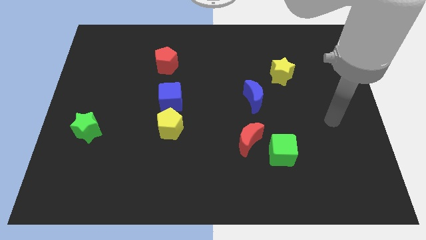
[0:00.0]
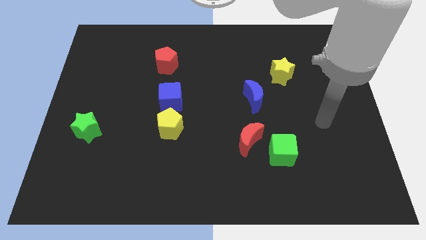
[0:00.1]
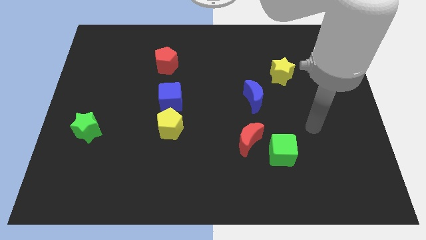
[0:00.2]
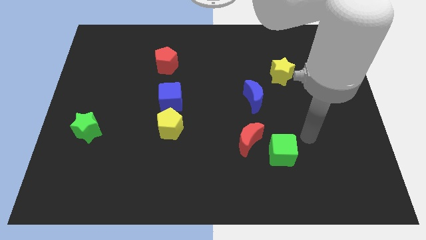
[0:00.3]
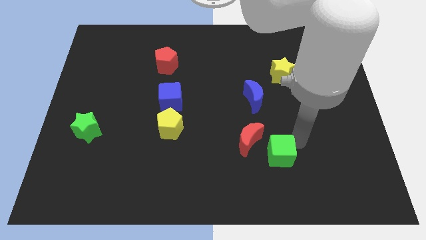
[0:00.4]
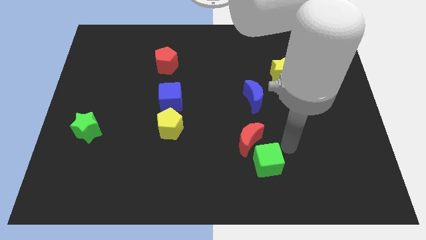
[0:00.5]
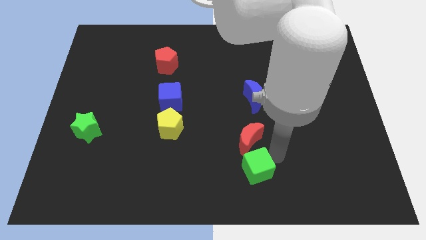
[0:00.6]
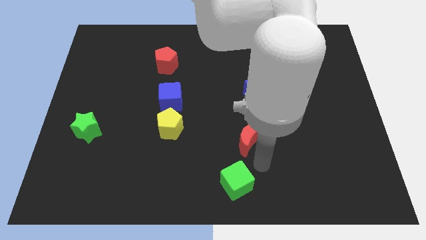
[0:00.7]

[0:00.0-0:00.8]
pull the red moon apart from the green cube

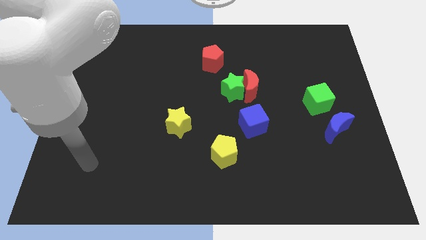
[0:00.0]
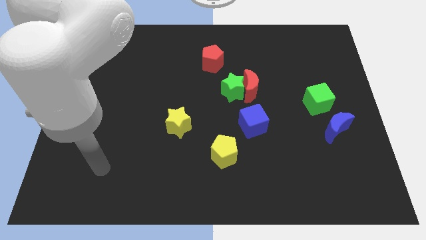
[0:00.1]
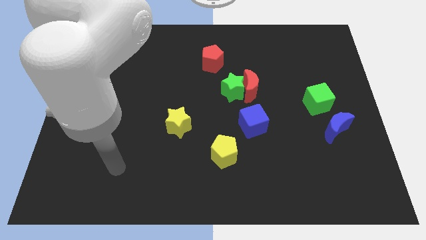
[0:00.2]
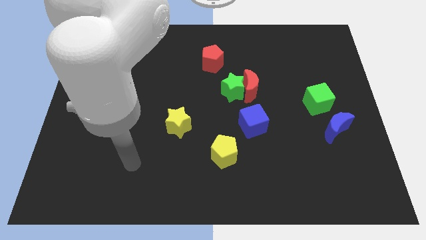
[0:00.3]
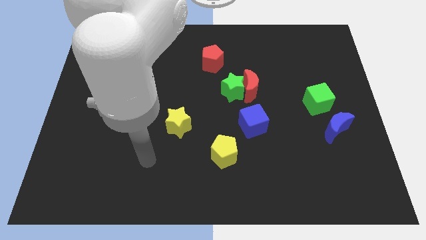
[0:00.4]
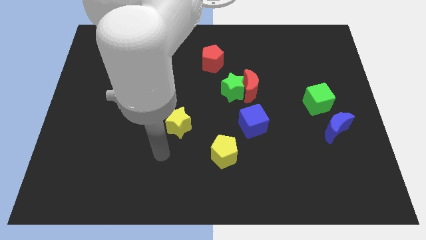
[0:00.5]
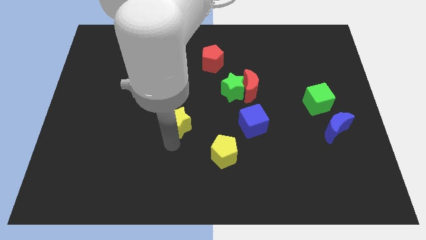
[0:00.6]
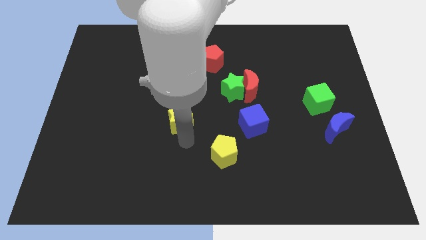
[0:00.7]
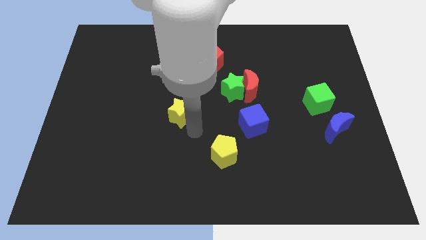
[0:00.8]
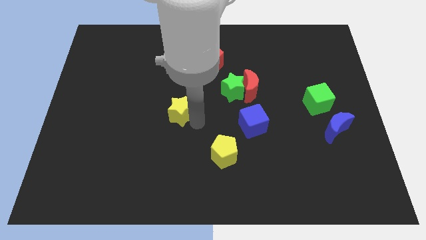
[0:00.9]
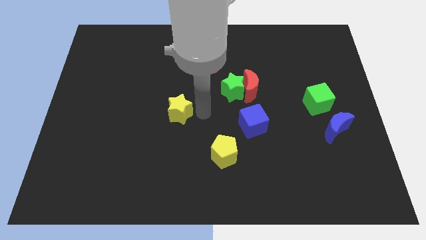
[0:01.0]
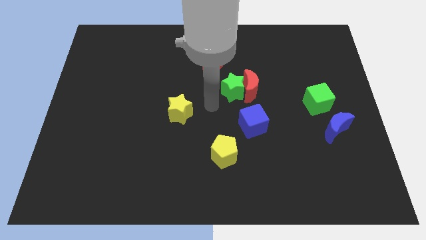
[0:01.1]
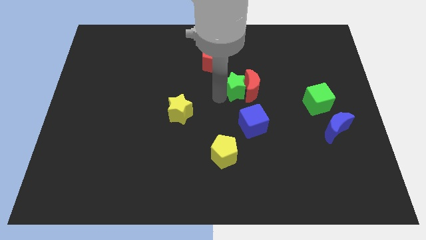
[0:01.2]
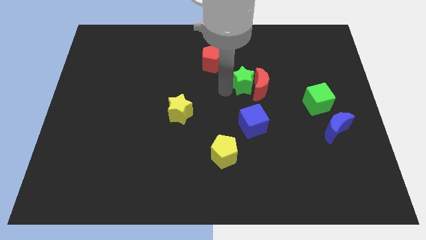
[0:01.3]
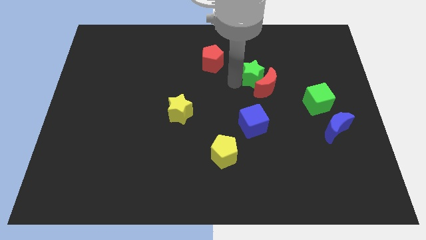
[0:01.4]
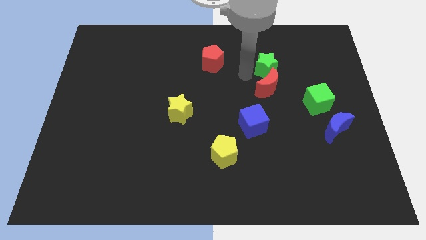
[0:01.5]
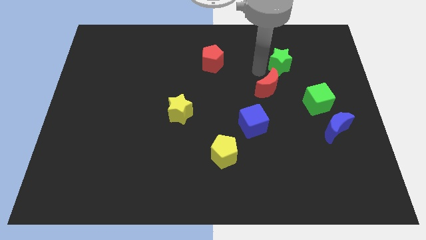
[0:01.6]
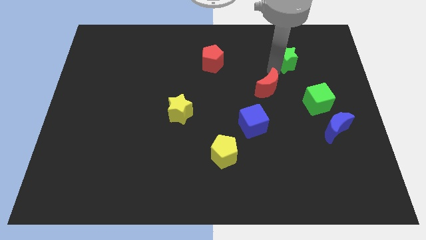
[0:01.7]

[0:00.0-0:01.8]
pull the red moon apart from the green star

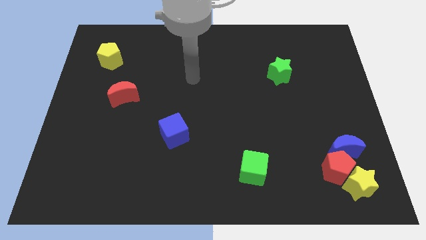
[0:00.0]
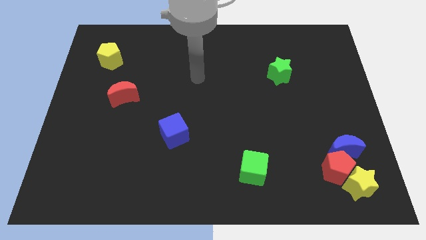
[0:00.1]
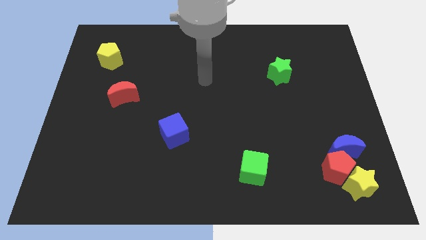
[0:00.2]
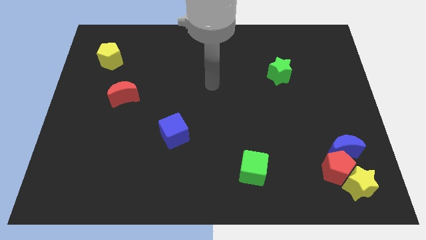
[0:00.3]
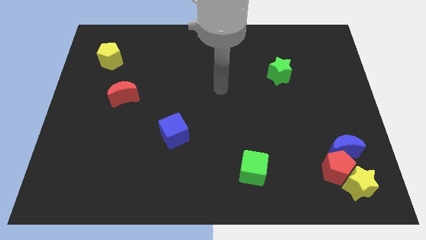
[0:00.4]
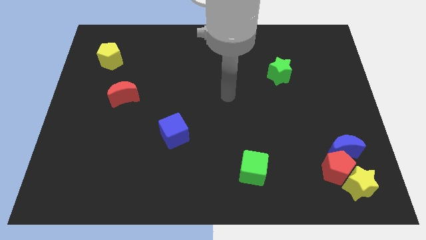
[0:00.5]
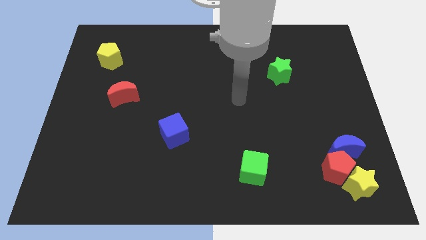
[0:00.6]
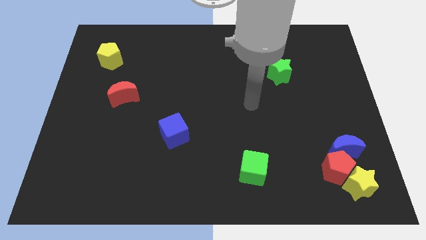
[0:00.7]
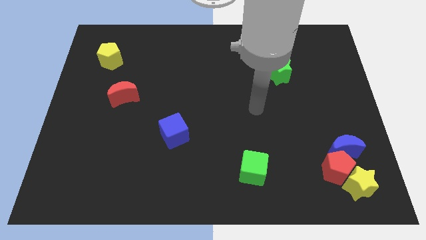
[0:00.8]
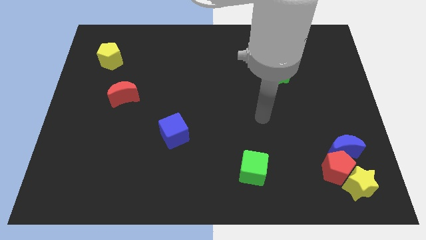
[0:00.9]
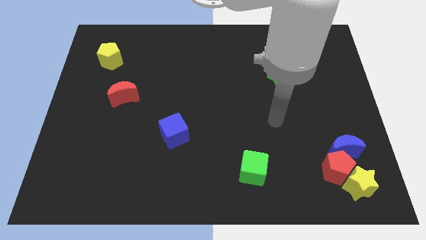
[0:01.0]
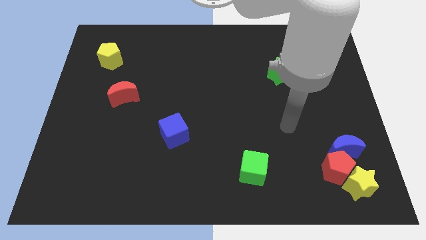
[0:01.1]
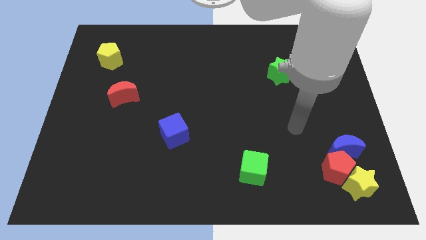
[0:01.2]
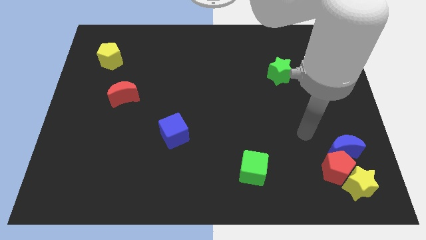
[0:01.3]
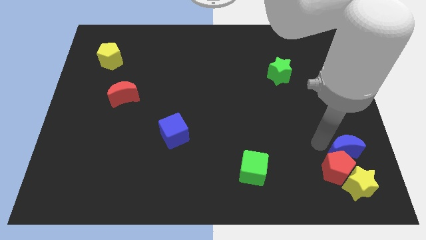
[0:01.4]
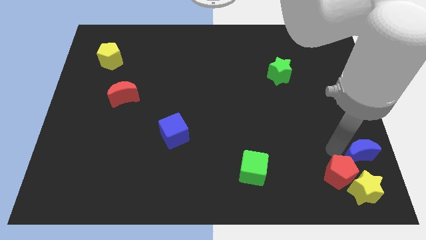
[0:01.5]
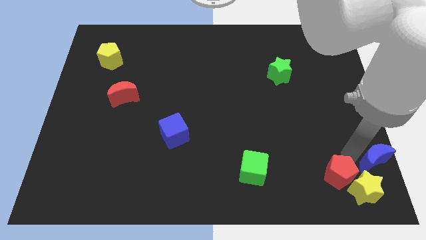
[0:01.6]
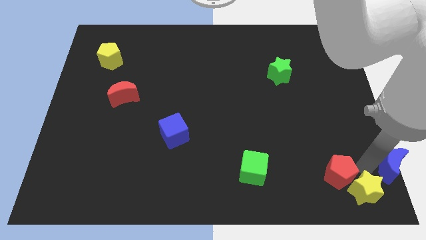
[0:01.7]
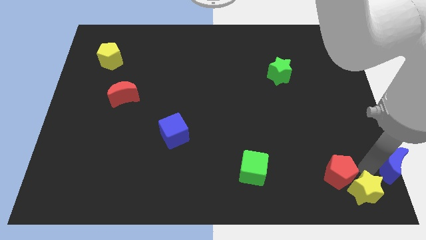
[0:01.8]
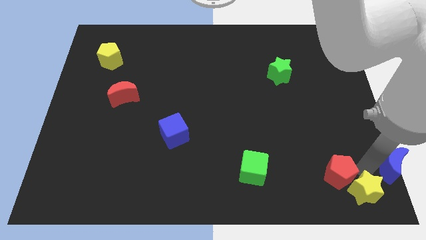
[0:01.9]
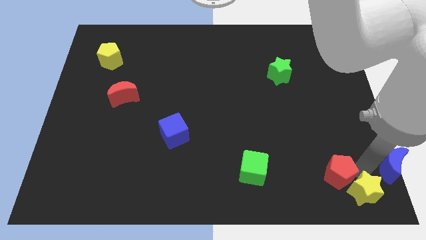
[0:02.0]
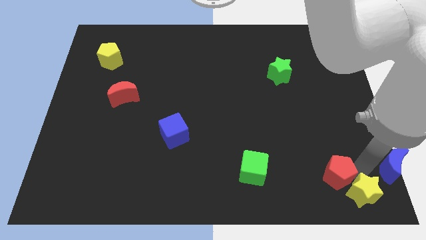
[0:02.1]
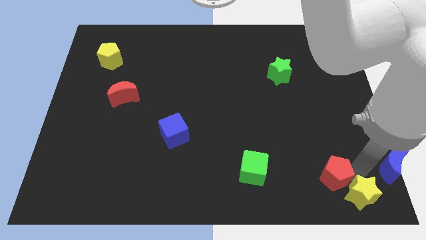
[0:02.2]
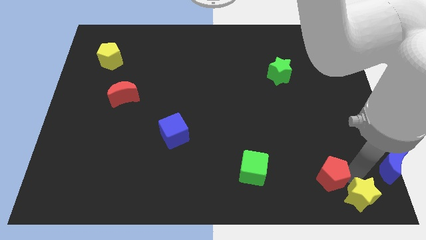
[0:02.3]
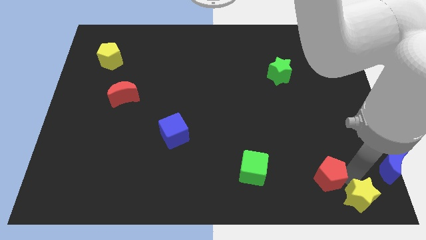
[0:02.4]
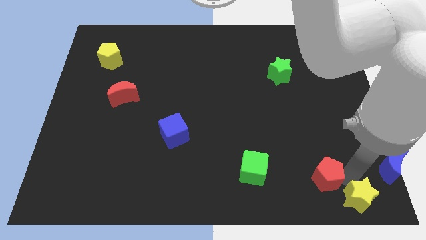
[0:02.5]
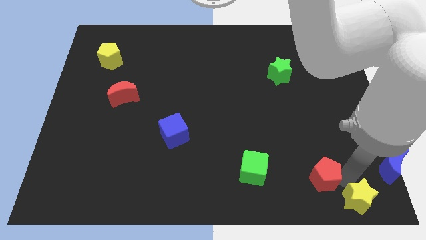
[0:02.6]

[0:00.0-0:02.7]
move the red pentagon away from the yellow star and blue moon

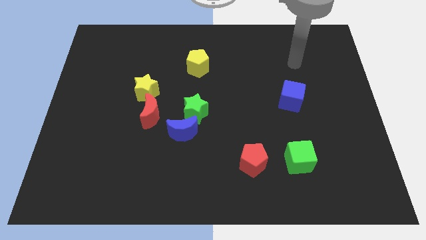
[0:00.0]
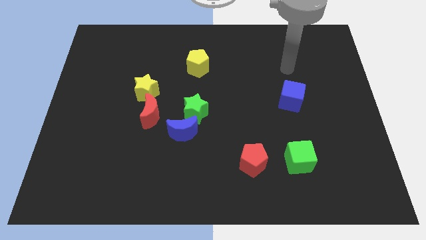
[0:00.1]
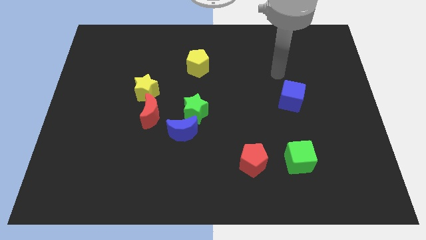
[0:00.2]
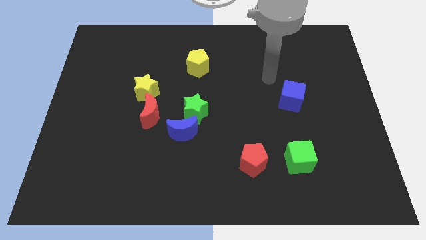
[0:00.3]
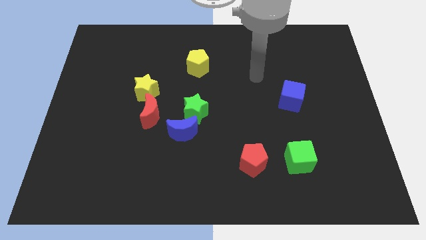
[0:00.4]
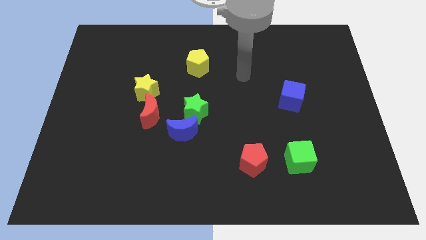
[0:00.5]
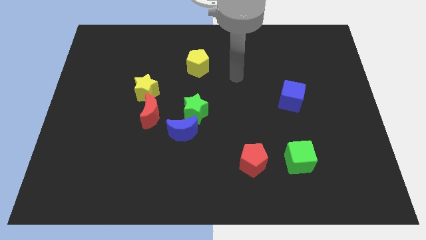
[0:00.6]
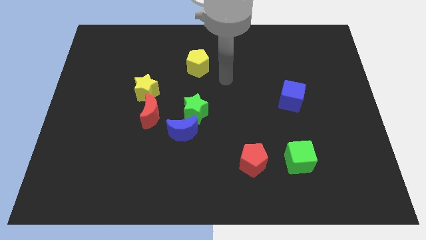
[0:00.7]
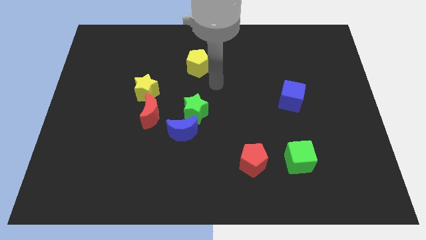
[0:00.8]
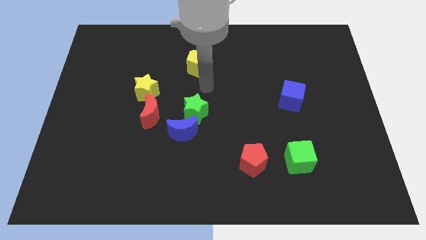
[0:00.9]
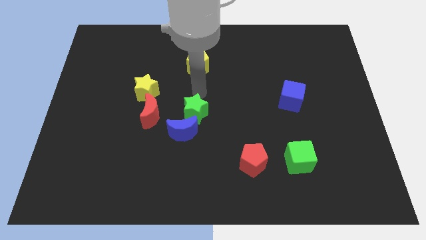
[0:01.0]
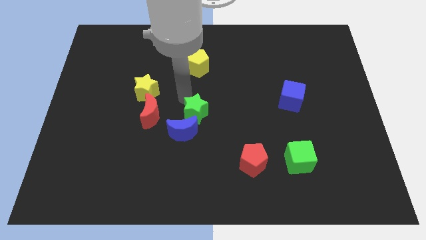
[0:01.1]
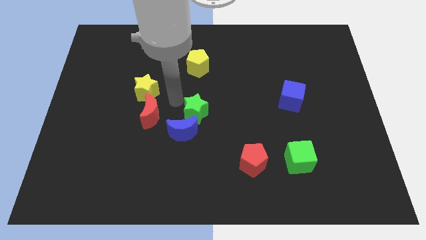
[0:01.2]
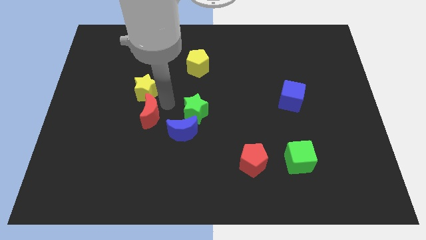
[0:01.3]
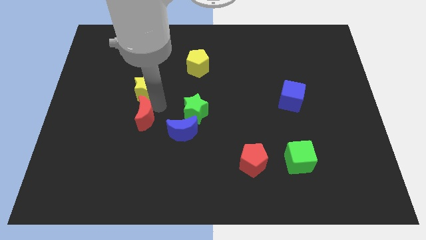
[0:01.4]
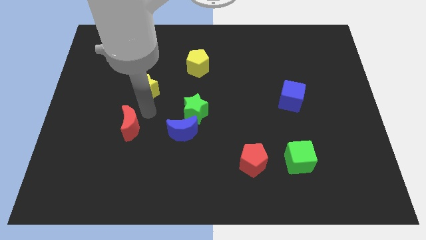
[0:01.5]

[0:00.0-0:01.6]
move the yellow star away from the red moon

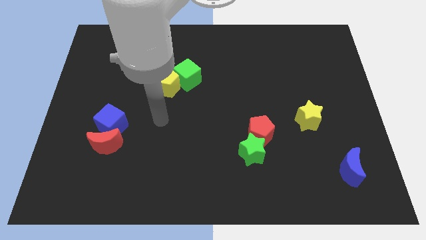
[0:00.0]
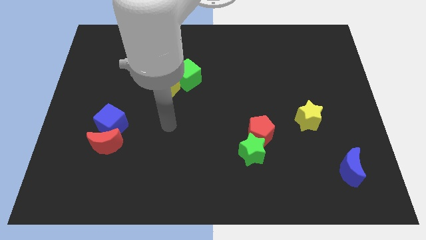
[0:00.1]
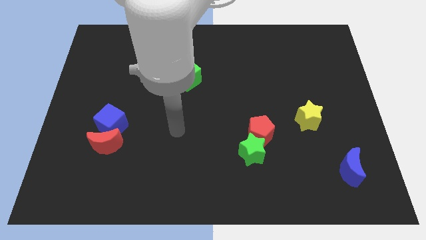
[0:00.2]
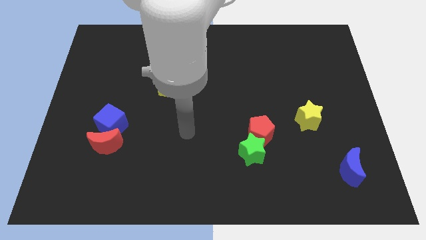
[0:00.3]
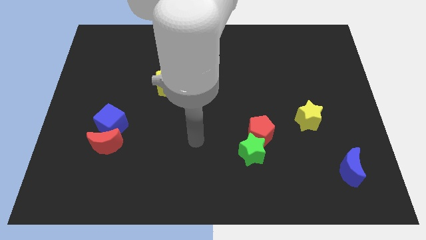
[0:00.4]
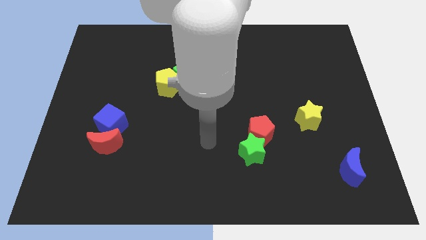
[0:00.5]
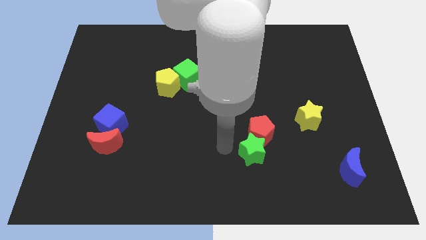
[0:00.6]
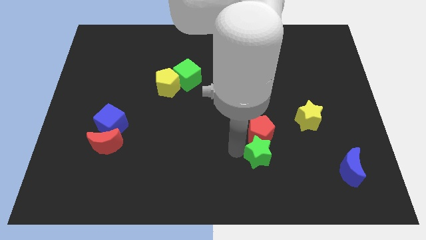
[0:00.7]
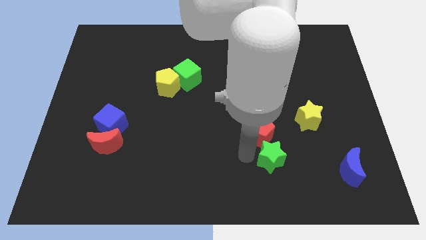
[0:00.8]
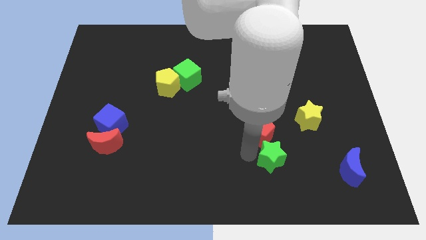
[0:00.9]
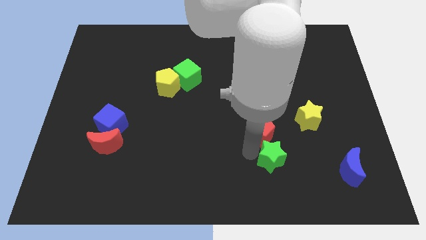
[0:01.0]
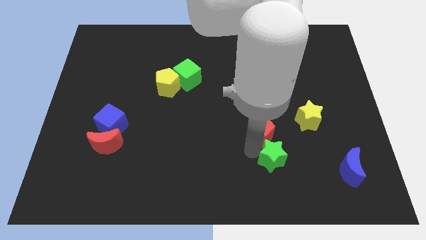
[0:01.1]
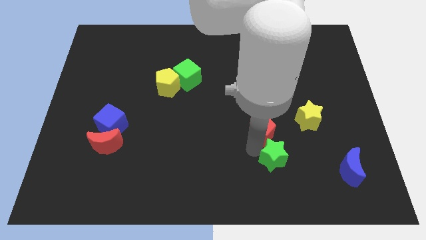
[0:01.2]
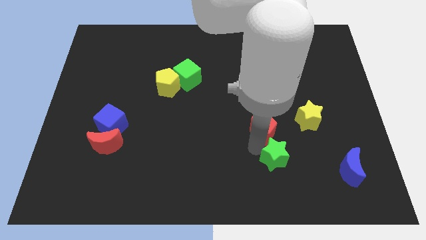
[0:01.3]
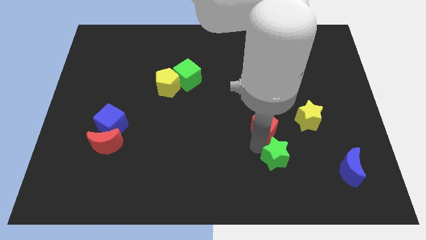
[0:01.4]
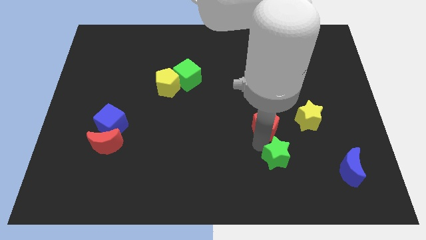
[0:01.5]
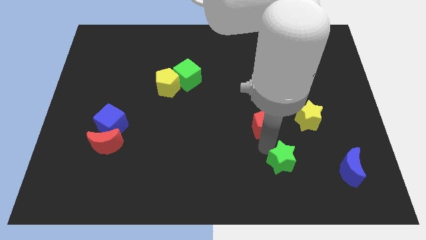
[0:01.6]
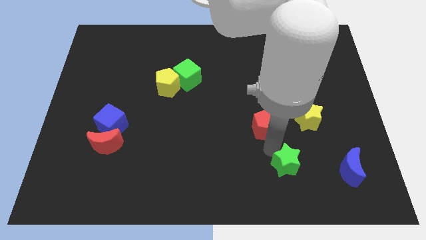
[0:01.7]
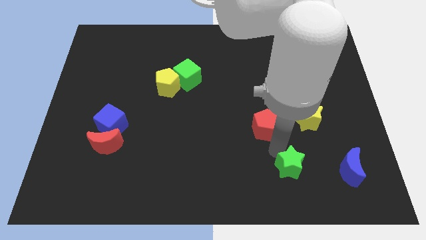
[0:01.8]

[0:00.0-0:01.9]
separate the red pentagon from the green star

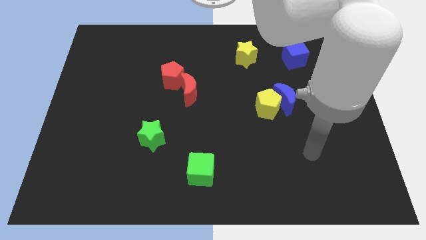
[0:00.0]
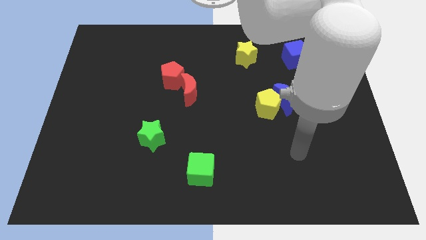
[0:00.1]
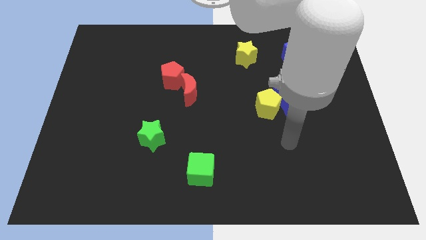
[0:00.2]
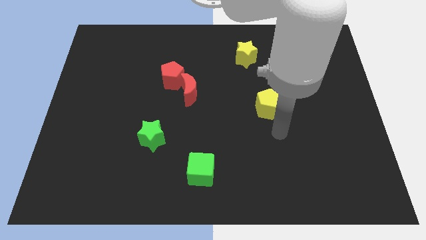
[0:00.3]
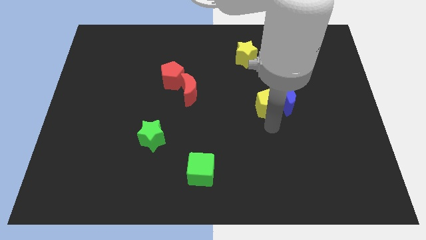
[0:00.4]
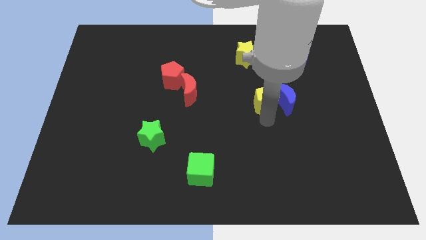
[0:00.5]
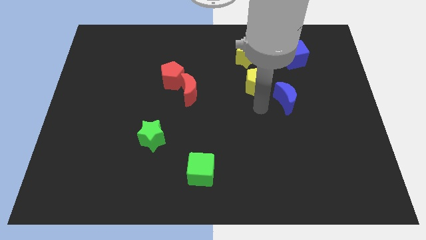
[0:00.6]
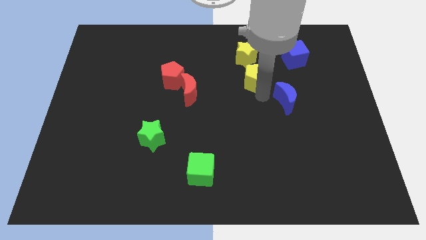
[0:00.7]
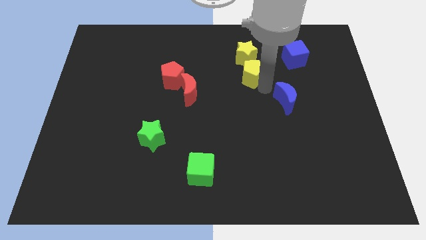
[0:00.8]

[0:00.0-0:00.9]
separate the blue moon from the yellow pentagon
